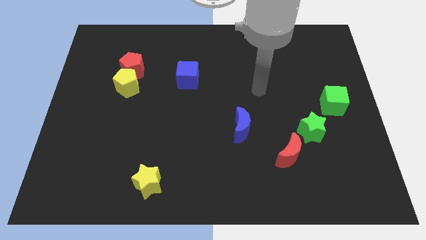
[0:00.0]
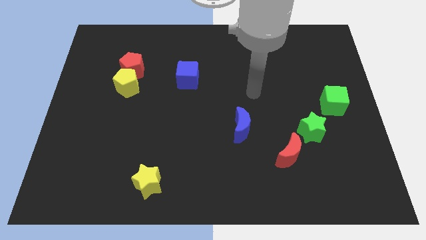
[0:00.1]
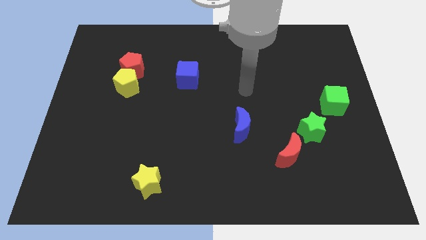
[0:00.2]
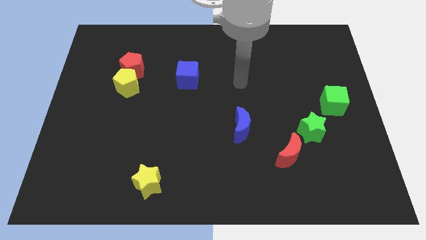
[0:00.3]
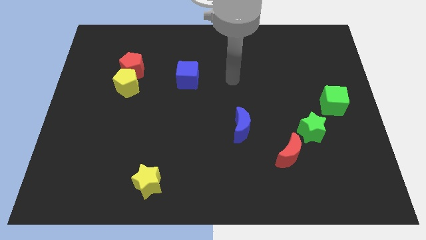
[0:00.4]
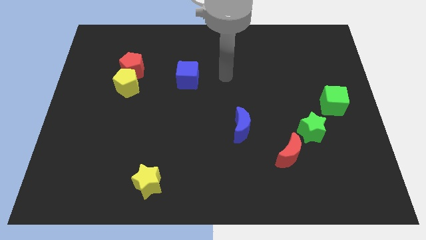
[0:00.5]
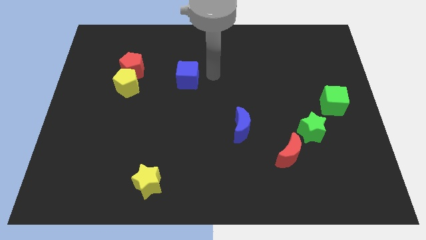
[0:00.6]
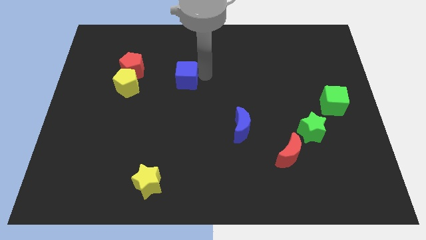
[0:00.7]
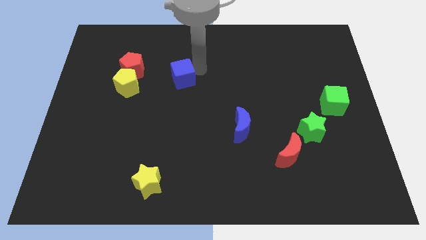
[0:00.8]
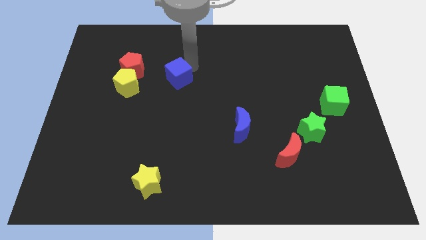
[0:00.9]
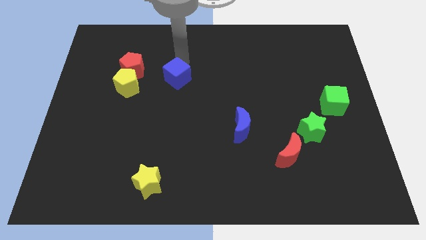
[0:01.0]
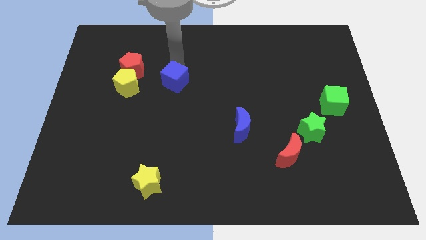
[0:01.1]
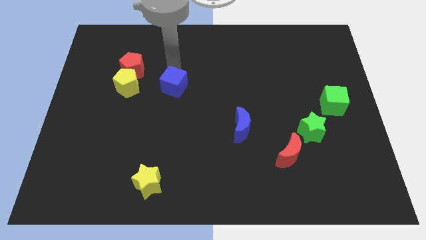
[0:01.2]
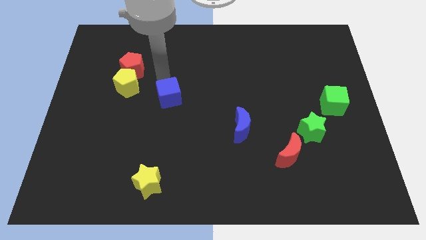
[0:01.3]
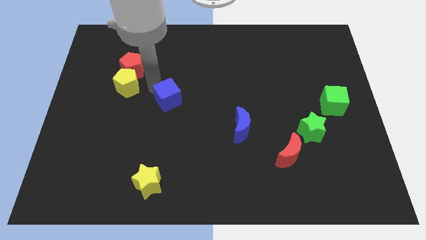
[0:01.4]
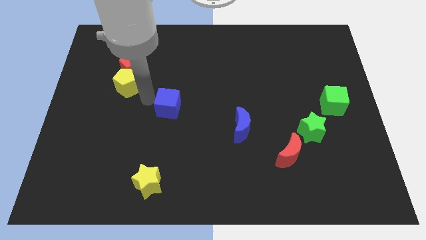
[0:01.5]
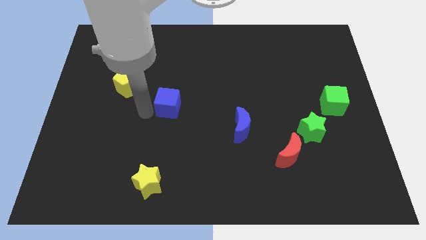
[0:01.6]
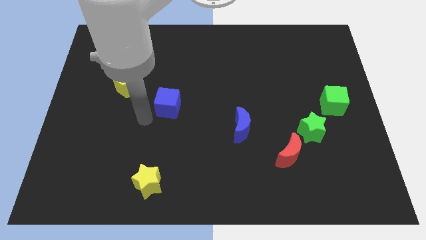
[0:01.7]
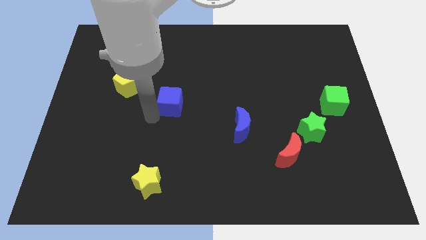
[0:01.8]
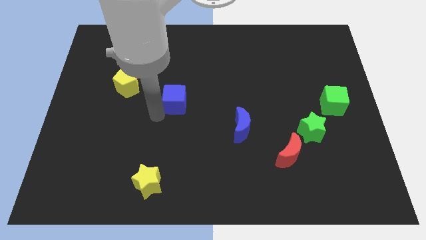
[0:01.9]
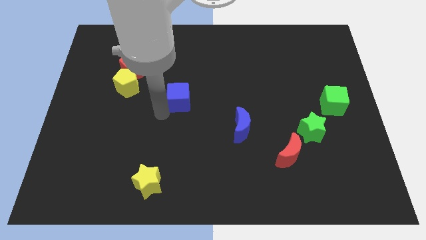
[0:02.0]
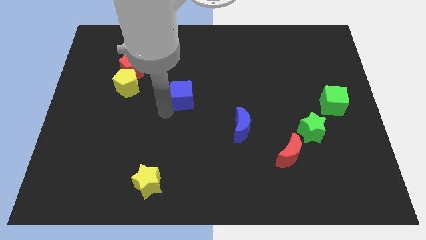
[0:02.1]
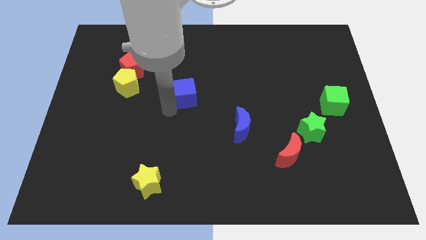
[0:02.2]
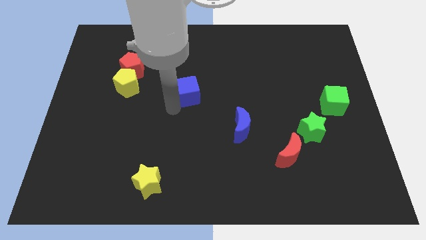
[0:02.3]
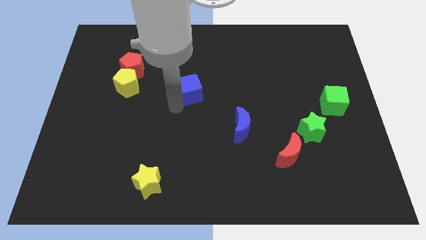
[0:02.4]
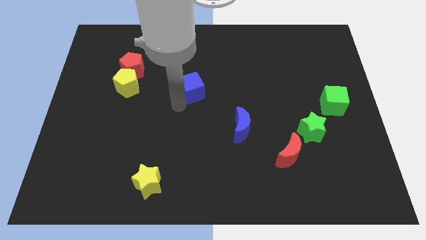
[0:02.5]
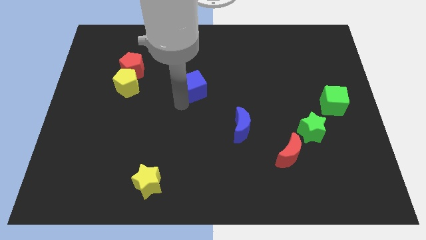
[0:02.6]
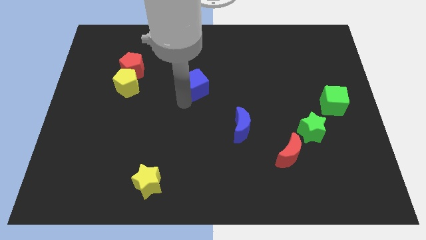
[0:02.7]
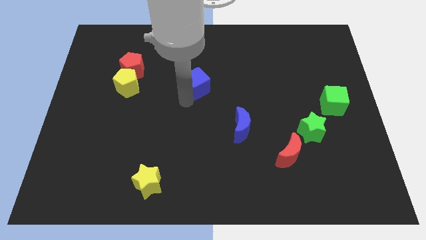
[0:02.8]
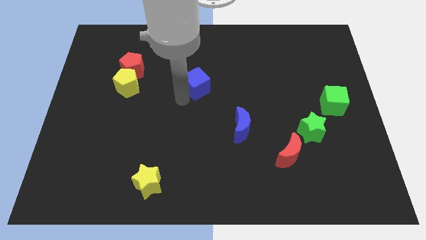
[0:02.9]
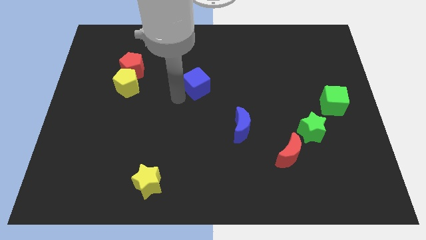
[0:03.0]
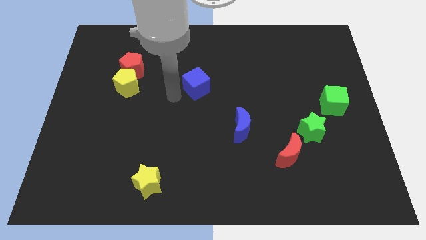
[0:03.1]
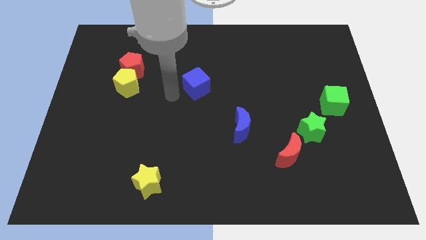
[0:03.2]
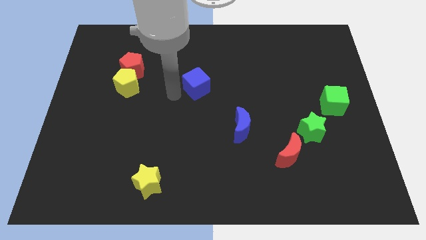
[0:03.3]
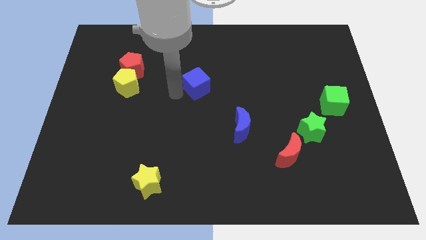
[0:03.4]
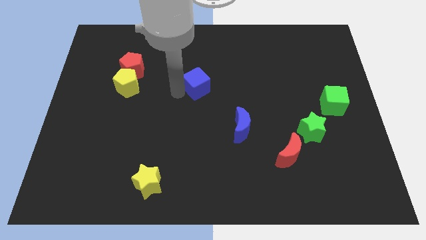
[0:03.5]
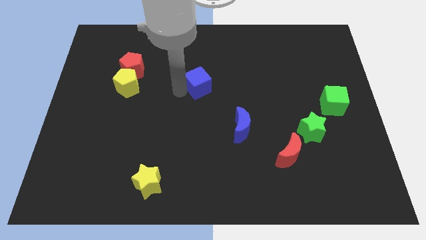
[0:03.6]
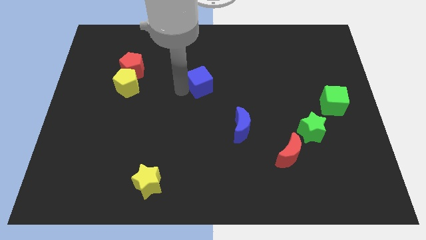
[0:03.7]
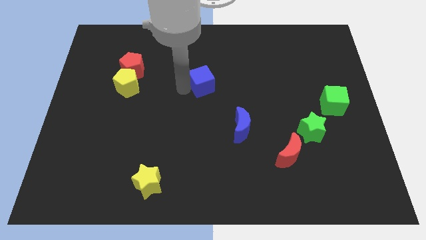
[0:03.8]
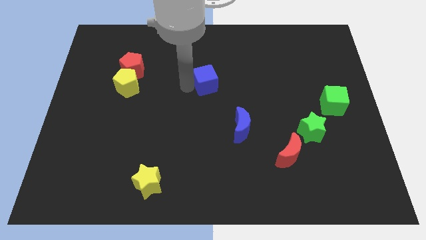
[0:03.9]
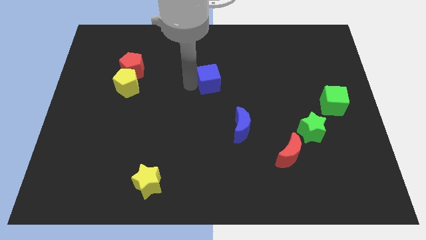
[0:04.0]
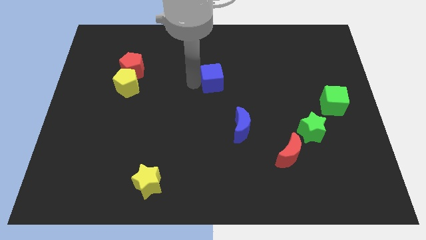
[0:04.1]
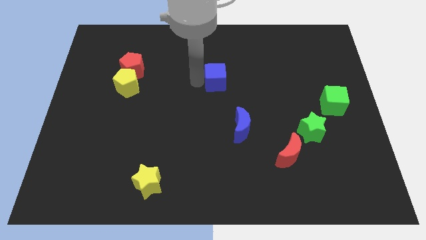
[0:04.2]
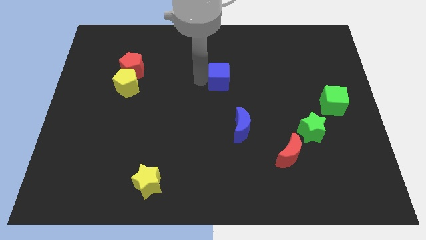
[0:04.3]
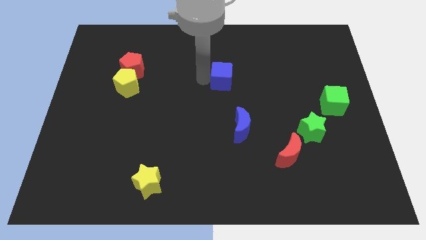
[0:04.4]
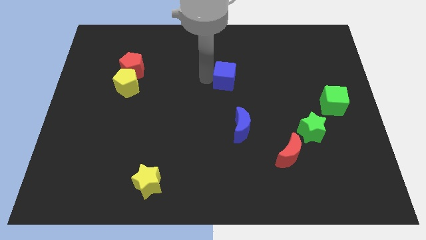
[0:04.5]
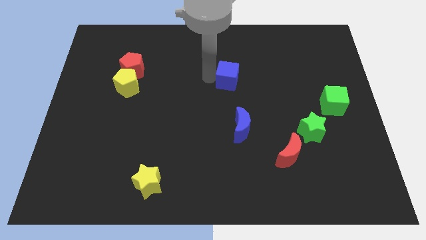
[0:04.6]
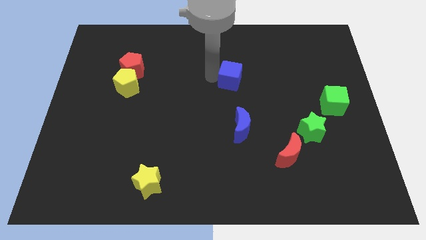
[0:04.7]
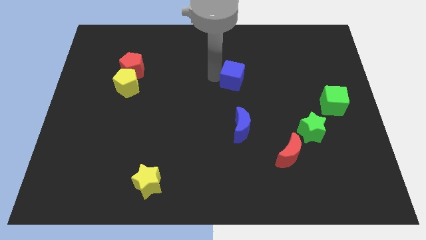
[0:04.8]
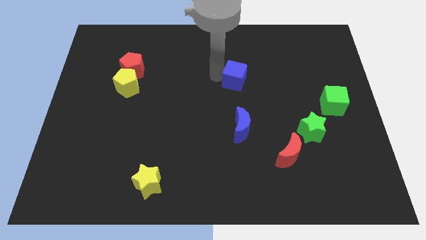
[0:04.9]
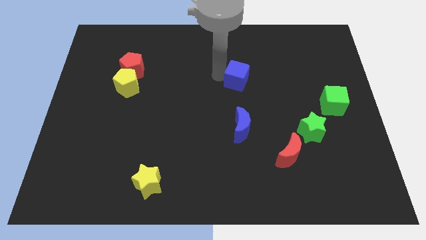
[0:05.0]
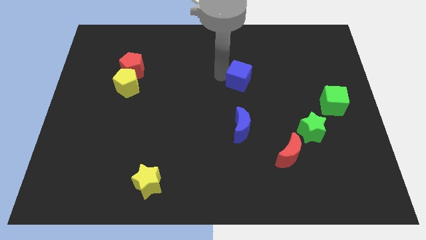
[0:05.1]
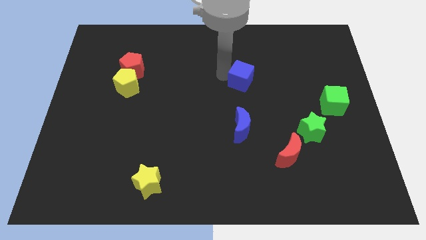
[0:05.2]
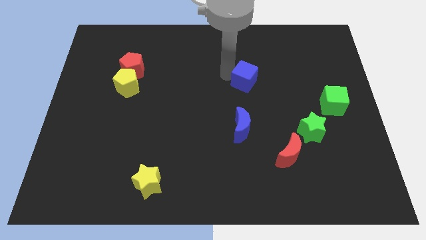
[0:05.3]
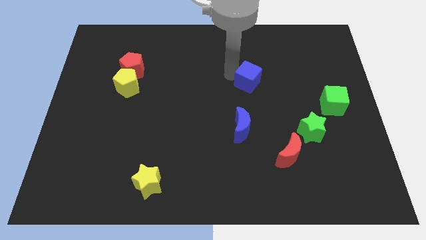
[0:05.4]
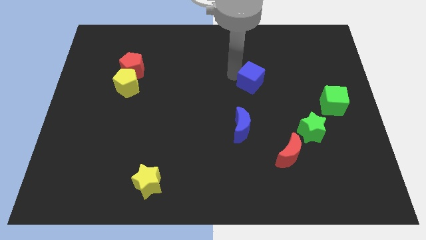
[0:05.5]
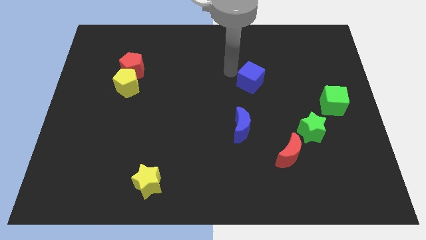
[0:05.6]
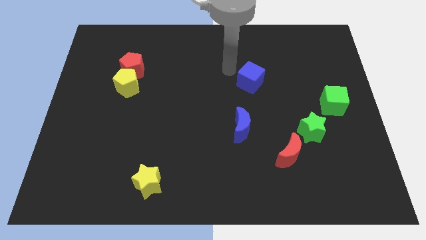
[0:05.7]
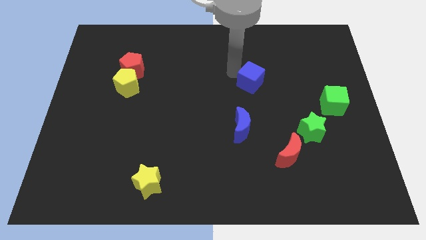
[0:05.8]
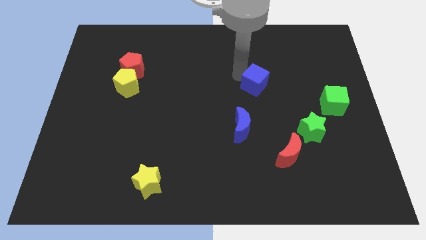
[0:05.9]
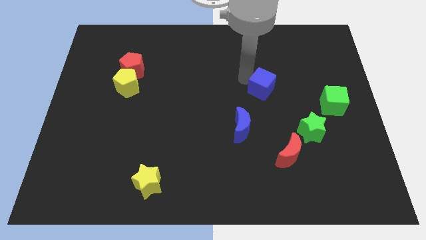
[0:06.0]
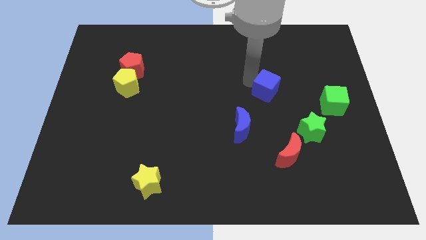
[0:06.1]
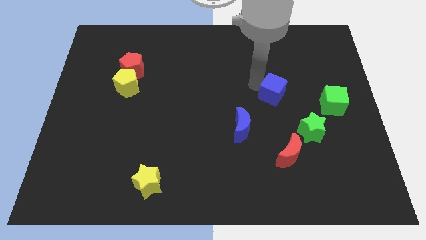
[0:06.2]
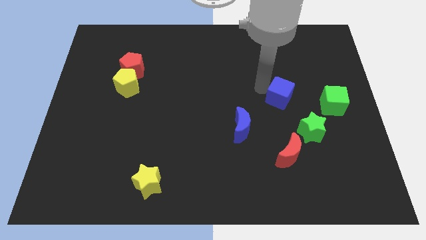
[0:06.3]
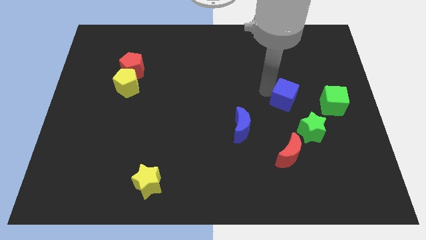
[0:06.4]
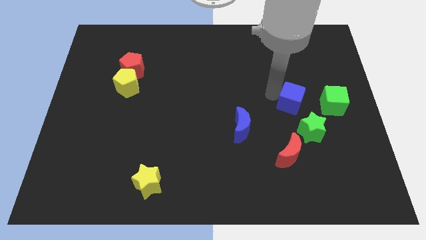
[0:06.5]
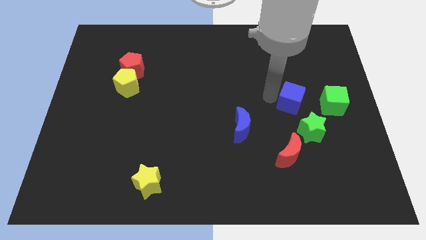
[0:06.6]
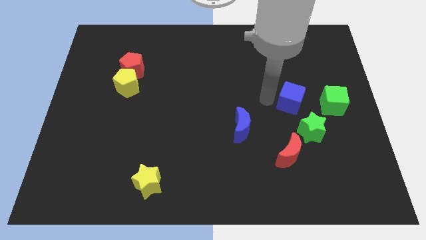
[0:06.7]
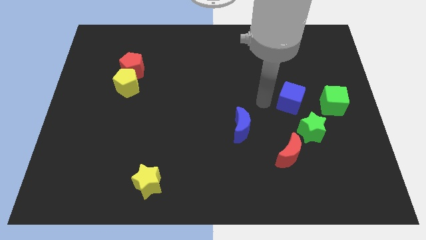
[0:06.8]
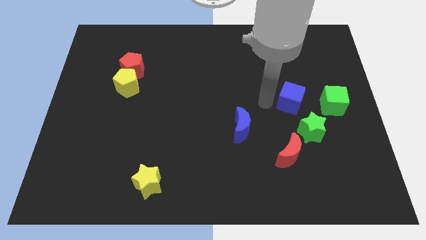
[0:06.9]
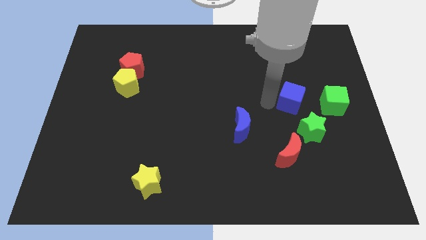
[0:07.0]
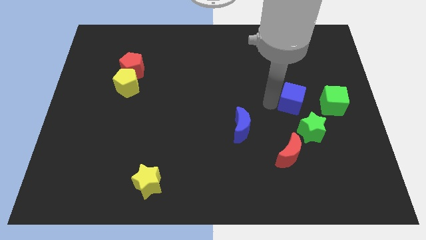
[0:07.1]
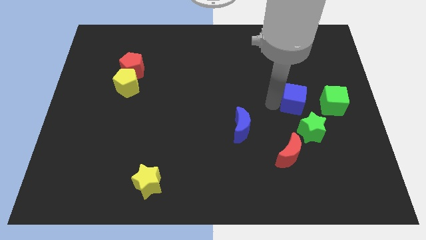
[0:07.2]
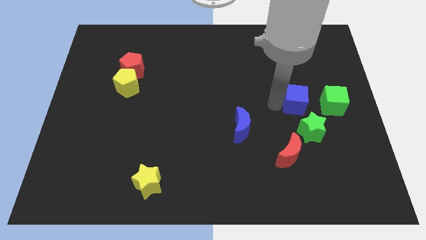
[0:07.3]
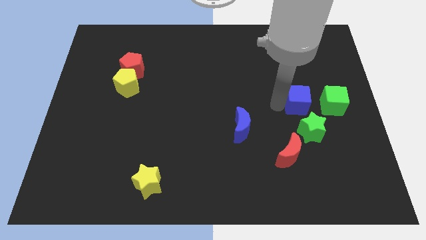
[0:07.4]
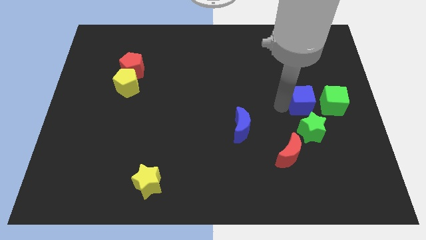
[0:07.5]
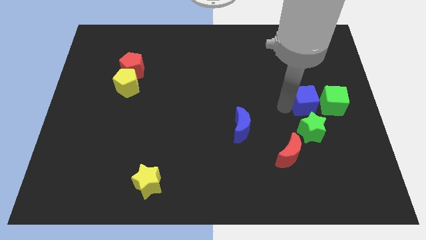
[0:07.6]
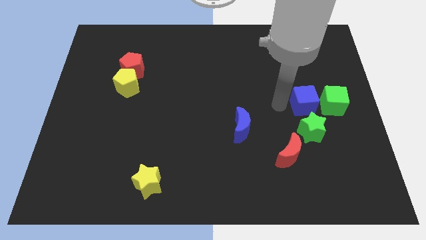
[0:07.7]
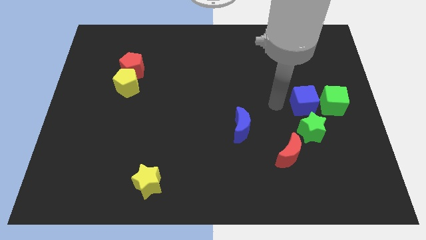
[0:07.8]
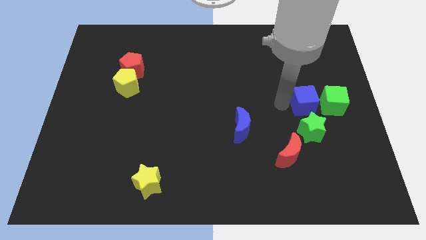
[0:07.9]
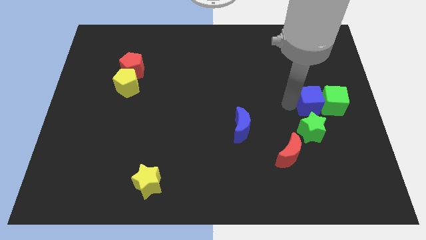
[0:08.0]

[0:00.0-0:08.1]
slide the blue cube close to the green cube
